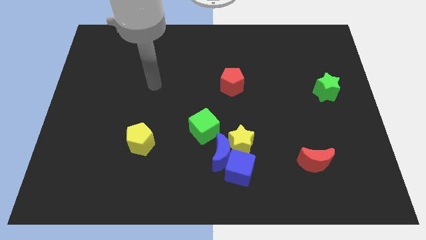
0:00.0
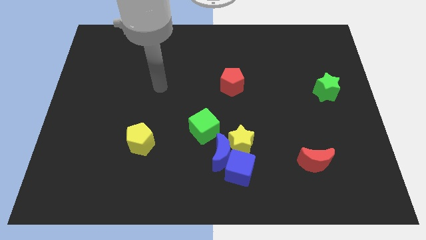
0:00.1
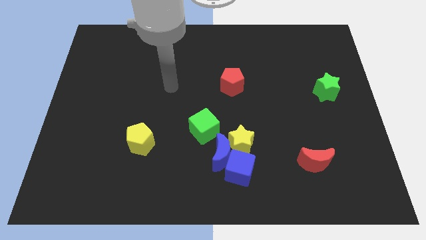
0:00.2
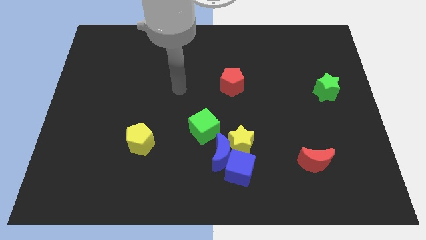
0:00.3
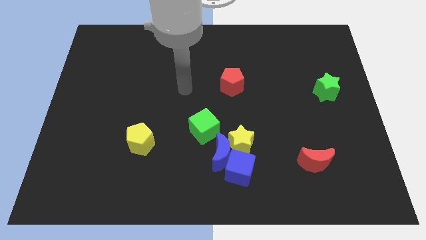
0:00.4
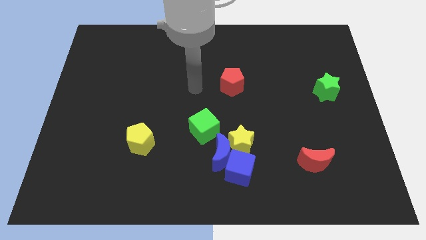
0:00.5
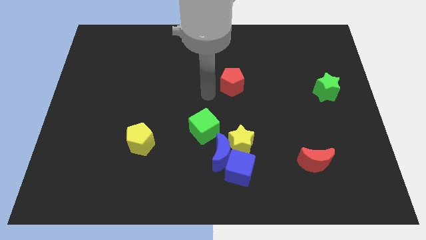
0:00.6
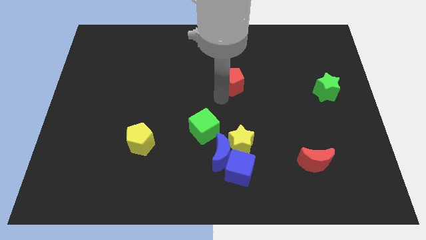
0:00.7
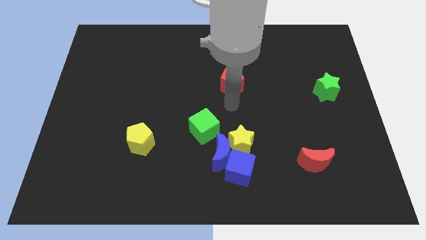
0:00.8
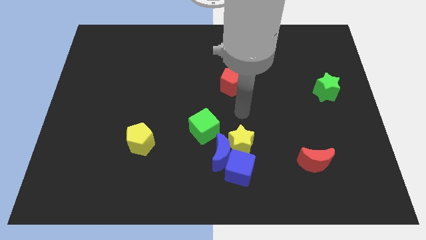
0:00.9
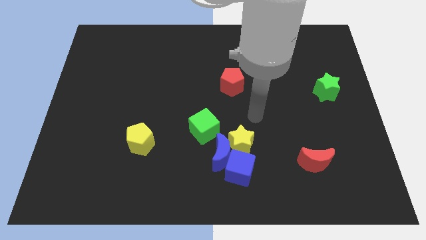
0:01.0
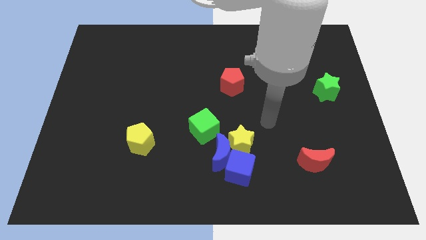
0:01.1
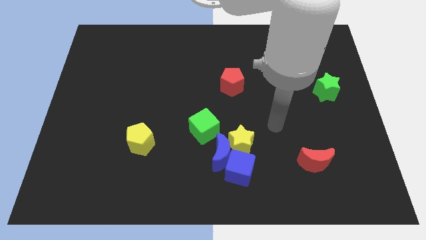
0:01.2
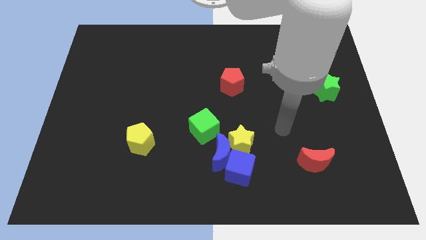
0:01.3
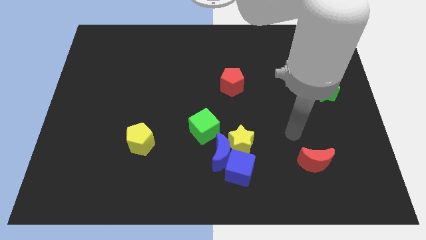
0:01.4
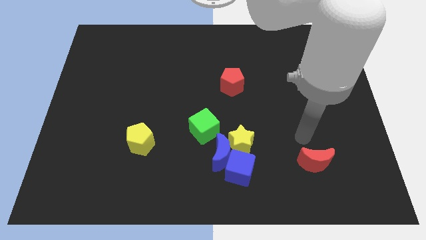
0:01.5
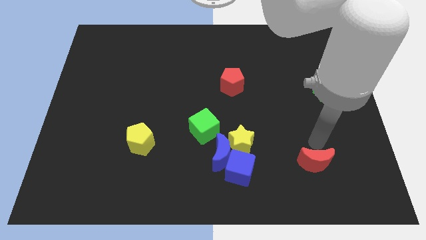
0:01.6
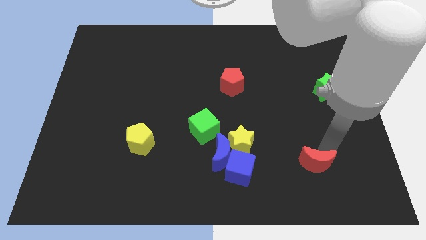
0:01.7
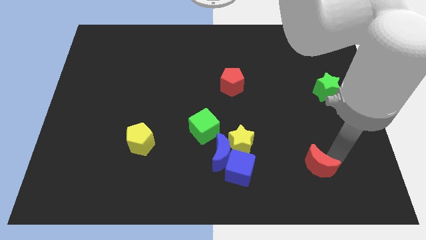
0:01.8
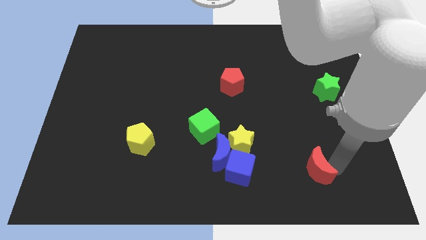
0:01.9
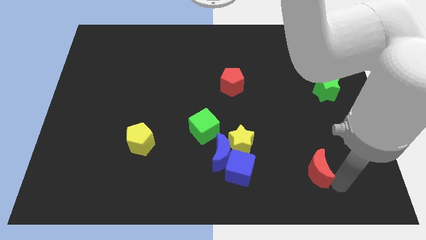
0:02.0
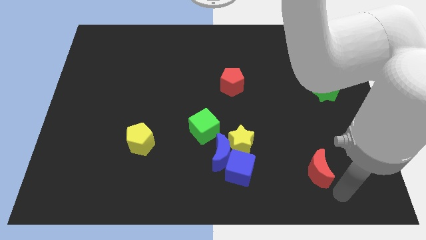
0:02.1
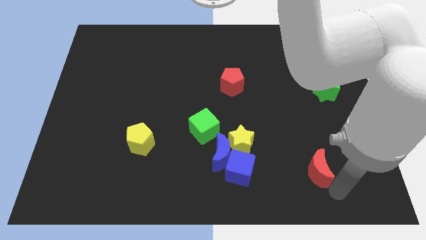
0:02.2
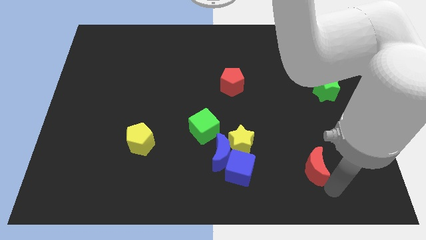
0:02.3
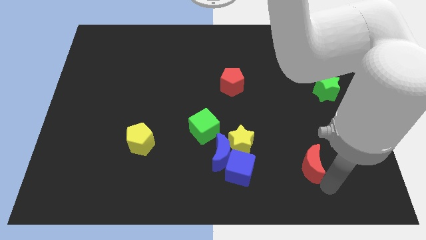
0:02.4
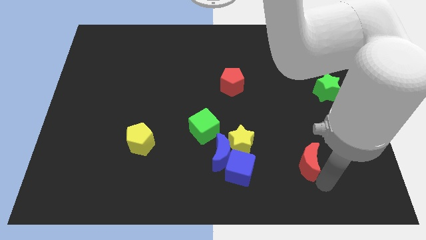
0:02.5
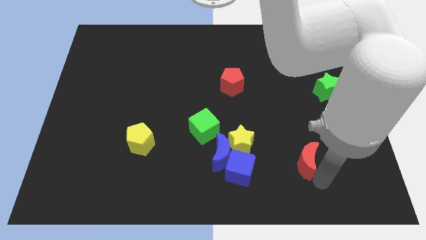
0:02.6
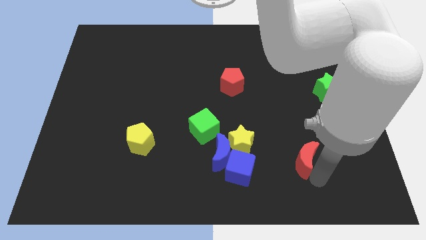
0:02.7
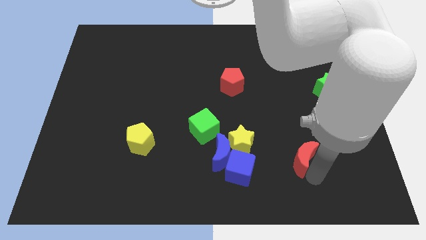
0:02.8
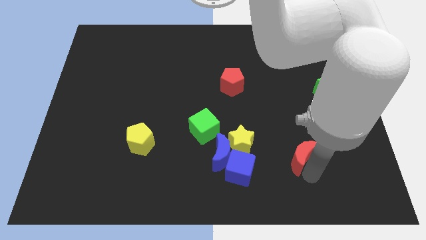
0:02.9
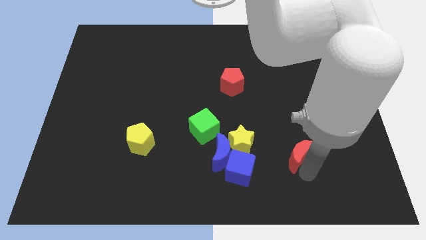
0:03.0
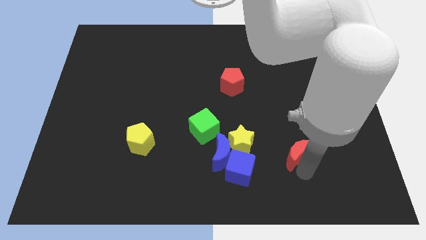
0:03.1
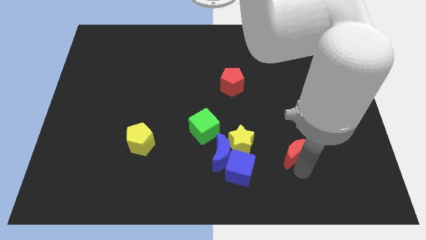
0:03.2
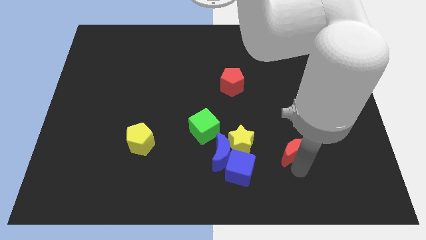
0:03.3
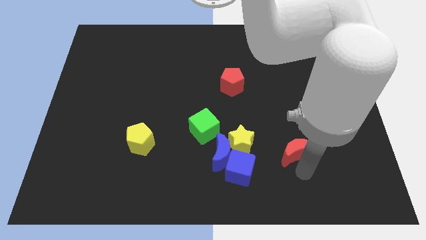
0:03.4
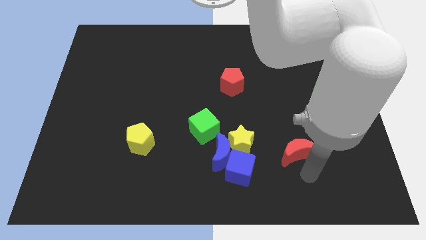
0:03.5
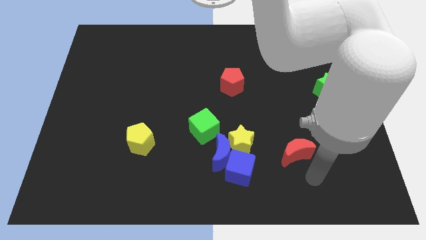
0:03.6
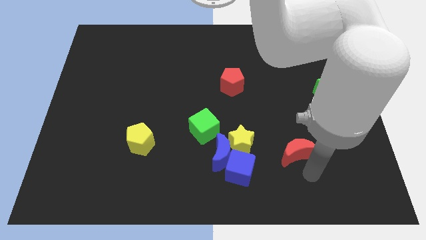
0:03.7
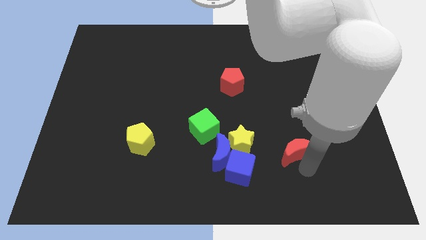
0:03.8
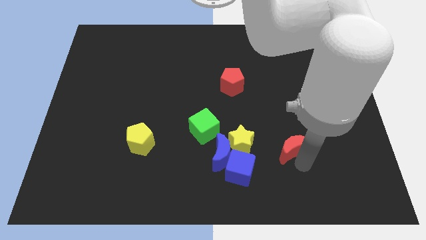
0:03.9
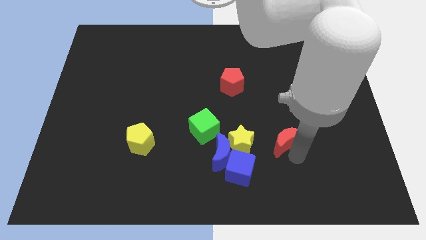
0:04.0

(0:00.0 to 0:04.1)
slightly slide the red moon up and then left

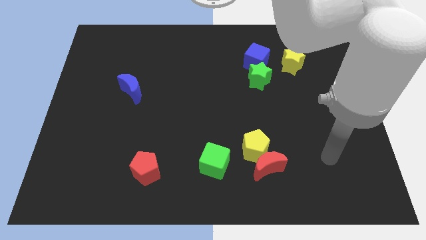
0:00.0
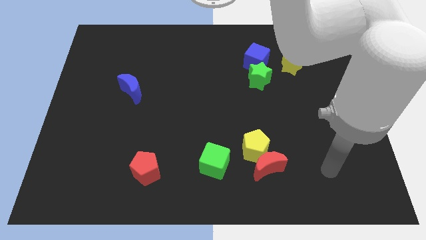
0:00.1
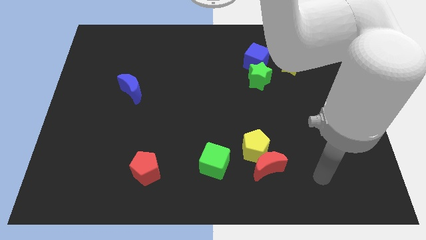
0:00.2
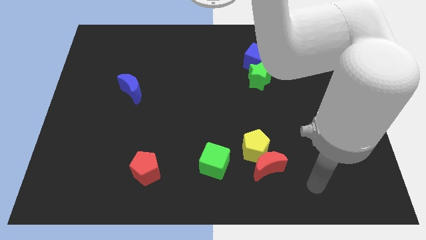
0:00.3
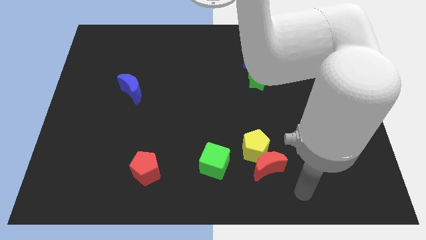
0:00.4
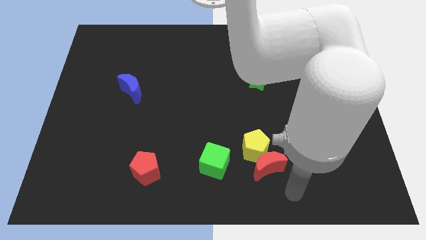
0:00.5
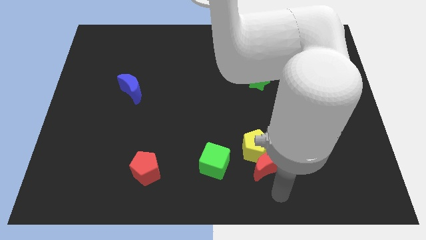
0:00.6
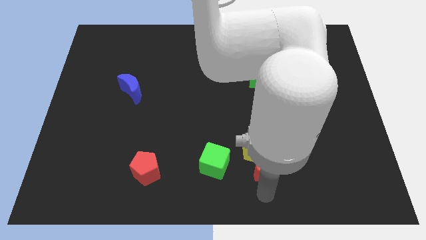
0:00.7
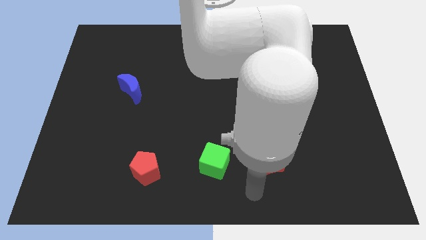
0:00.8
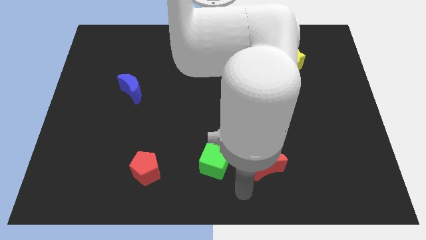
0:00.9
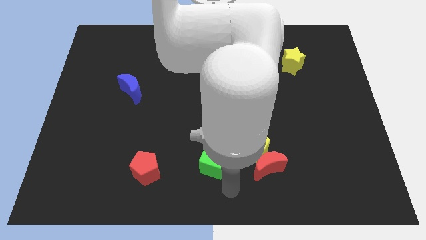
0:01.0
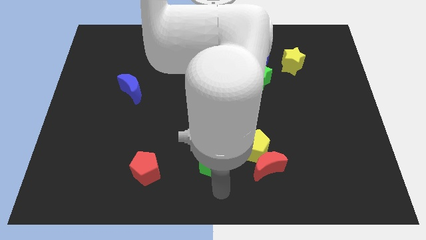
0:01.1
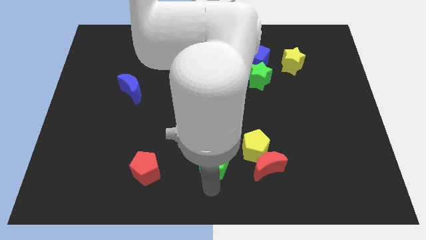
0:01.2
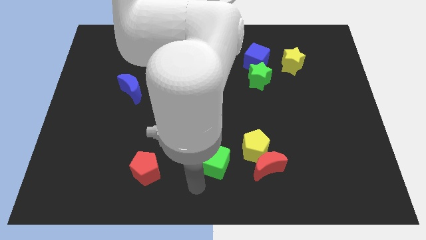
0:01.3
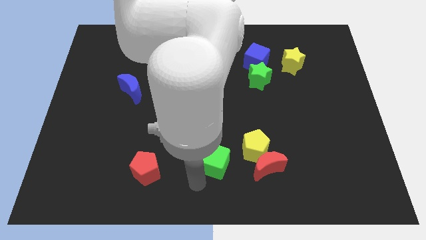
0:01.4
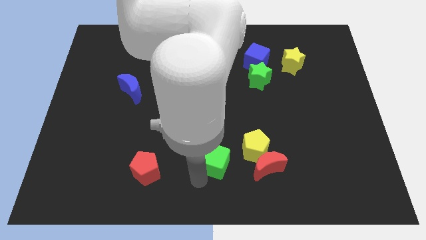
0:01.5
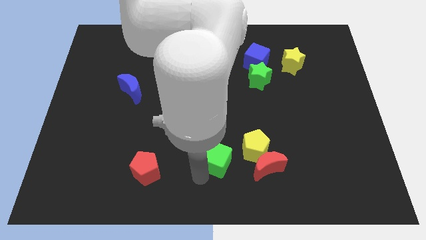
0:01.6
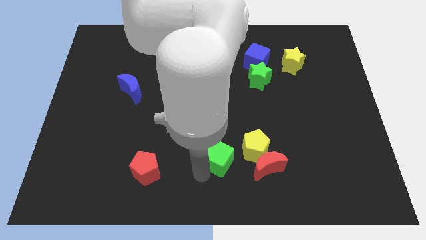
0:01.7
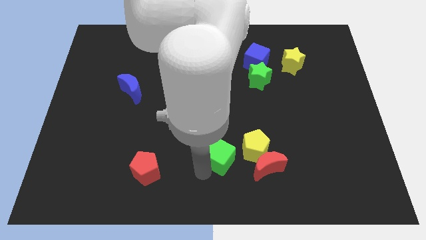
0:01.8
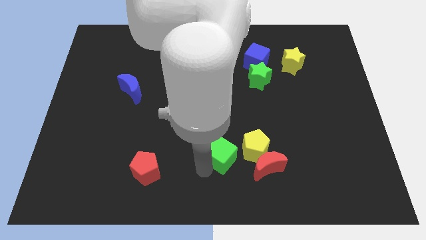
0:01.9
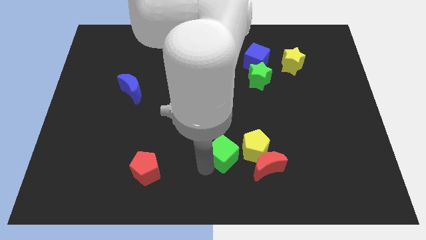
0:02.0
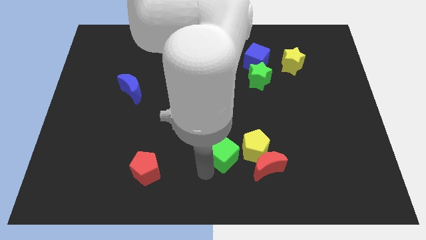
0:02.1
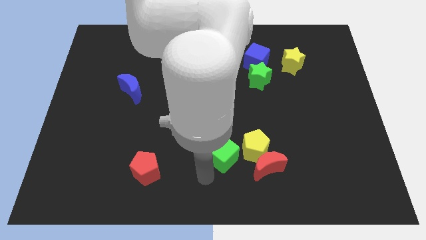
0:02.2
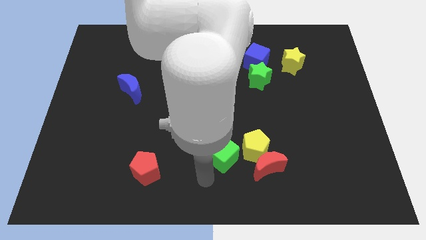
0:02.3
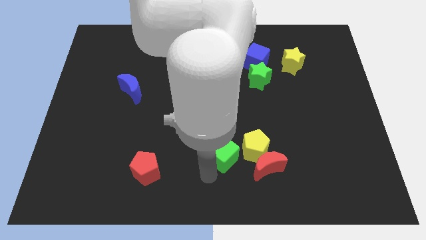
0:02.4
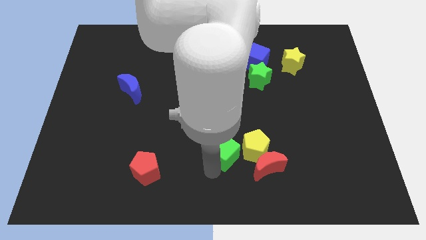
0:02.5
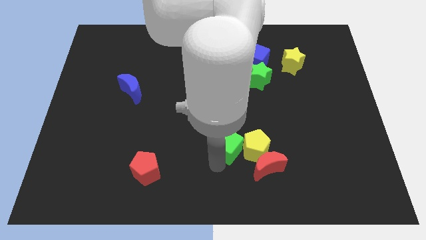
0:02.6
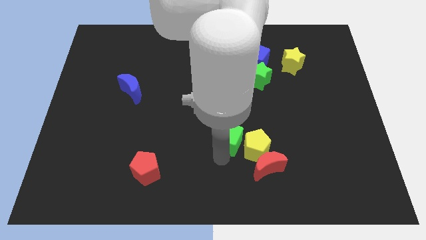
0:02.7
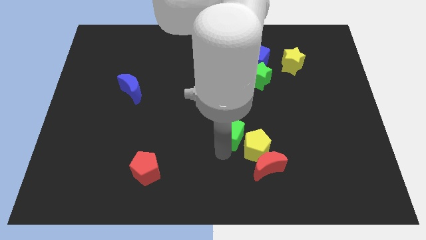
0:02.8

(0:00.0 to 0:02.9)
push the green cube diagonally upwards and right a little bit

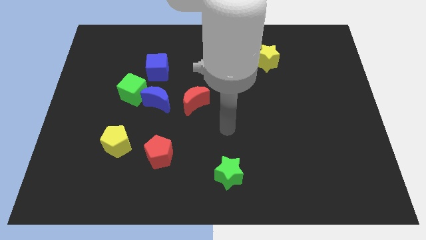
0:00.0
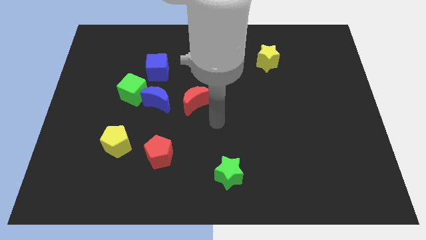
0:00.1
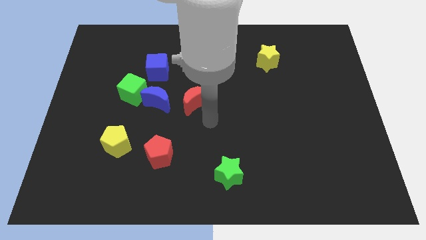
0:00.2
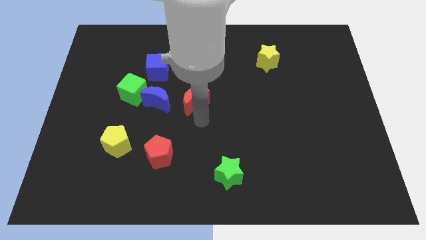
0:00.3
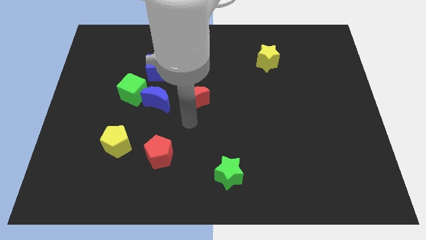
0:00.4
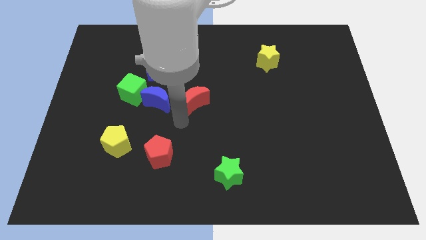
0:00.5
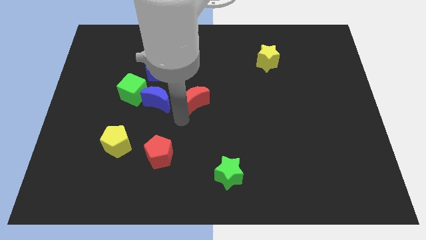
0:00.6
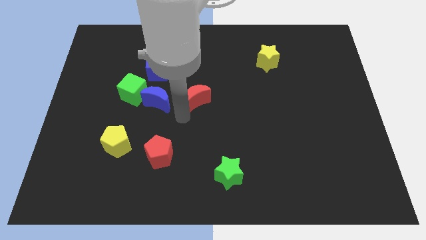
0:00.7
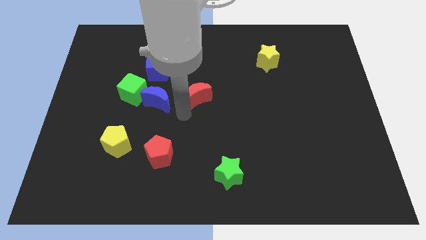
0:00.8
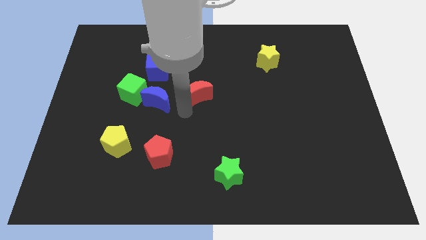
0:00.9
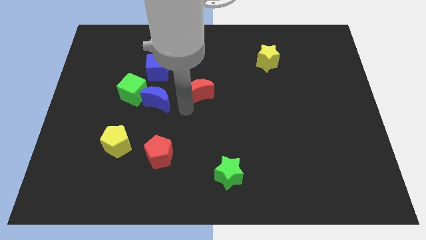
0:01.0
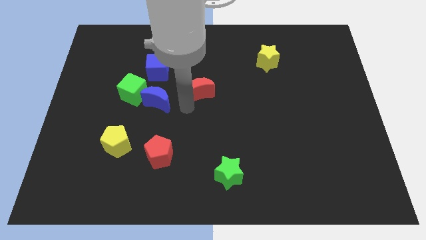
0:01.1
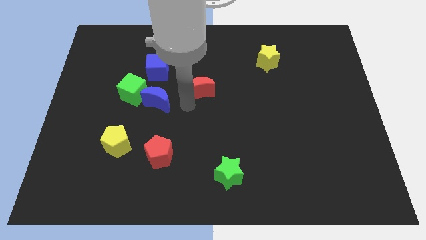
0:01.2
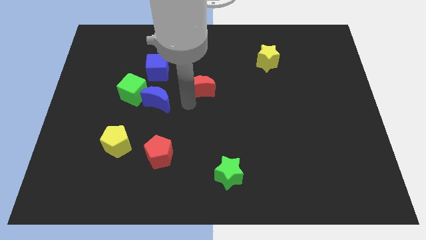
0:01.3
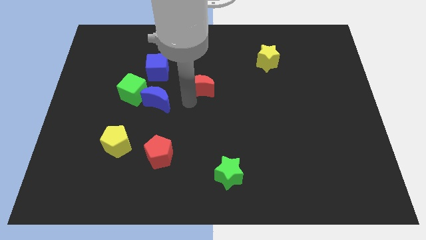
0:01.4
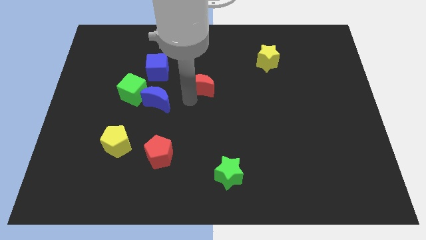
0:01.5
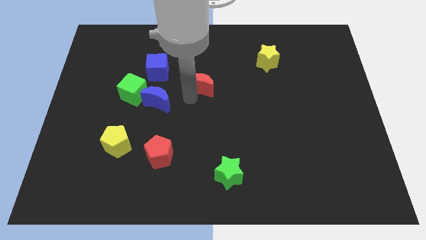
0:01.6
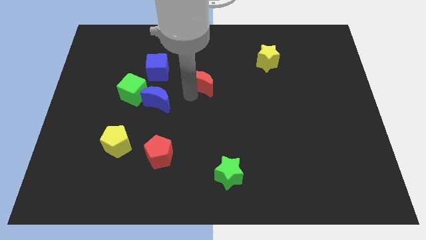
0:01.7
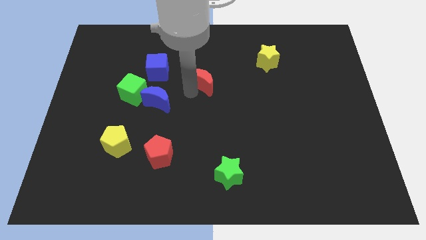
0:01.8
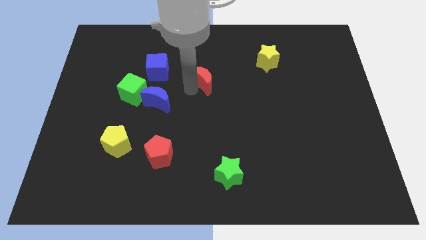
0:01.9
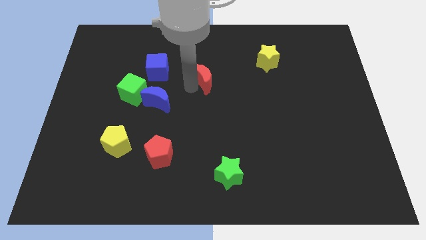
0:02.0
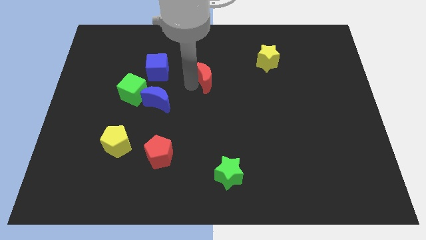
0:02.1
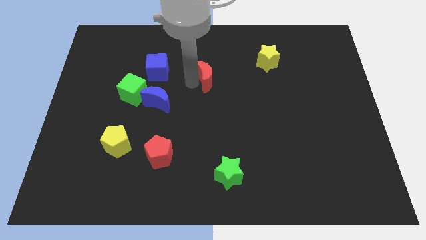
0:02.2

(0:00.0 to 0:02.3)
move the red moon a little upwards and right
